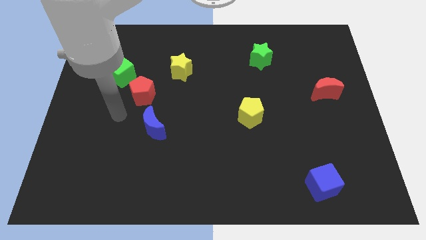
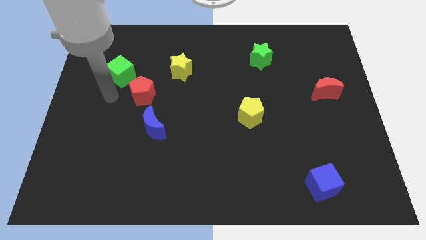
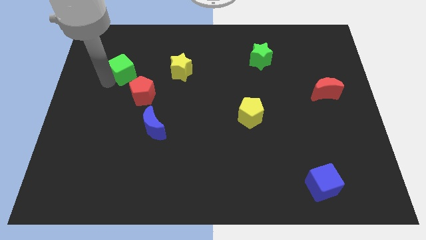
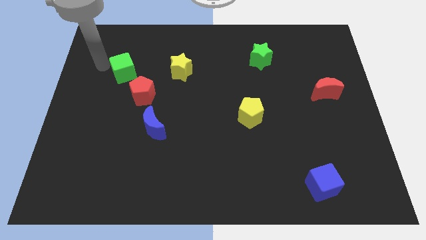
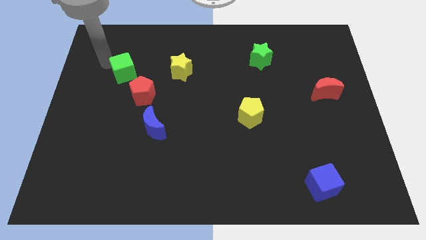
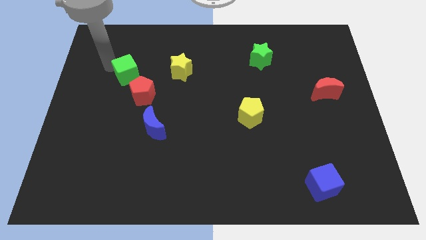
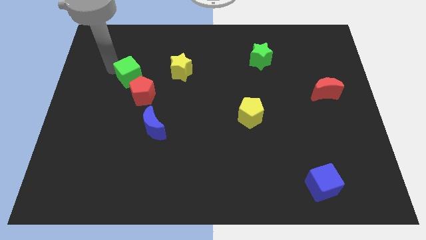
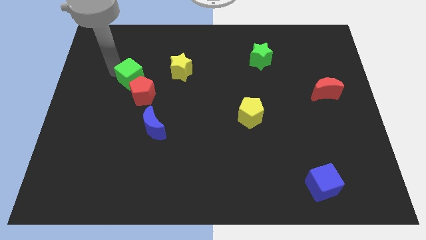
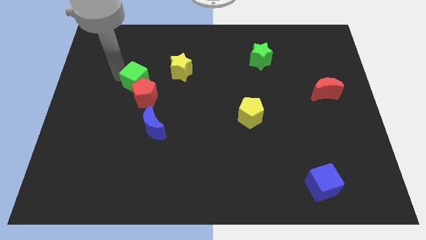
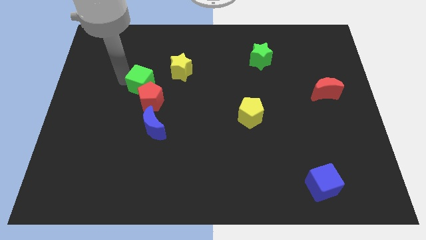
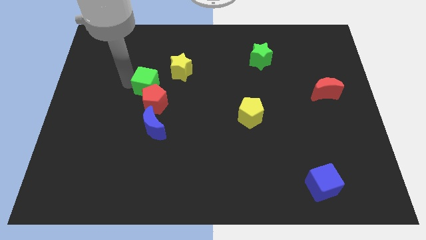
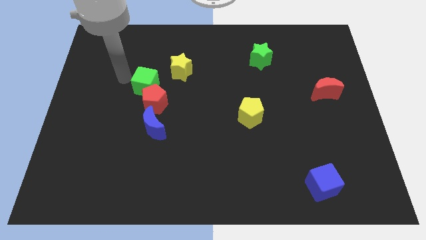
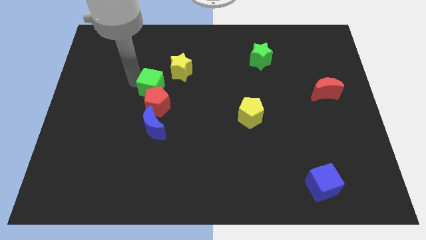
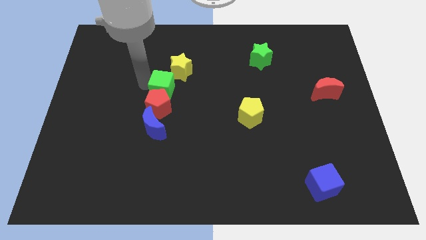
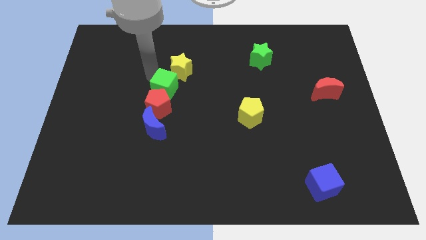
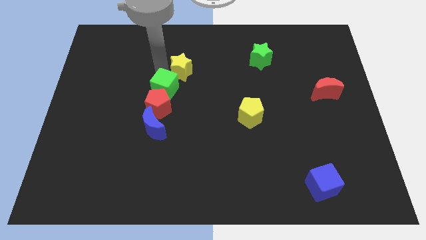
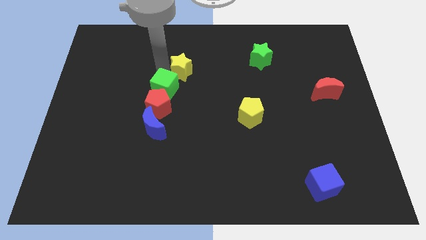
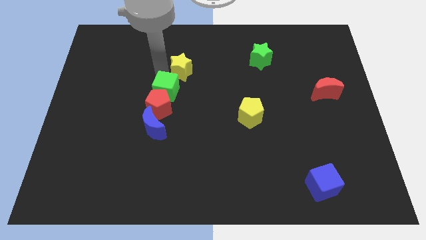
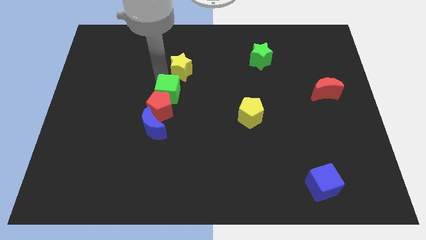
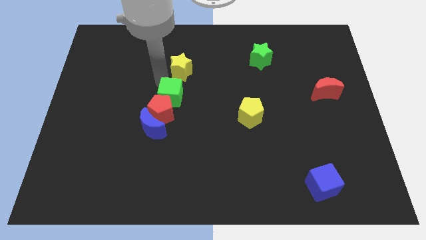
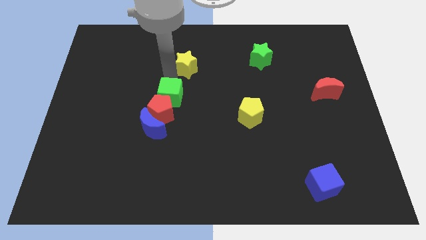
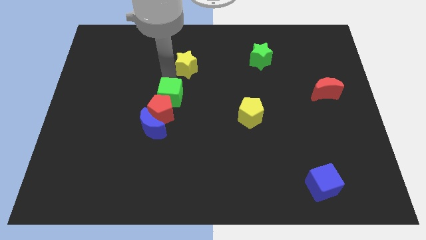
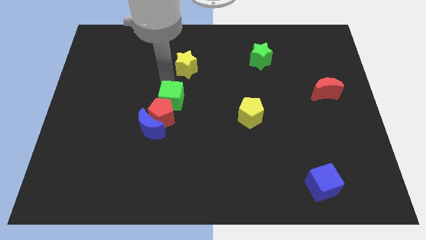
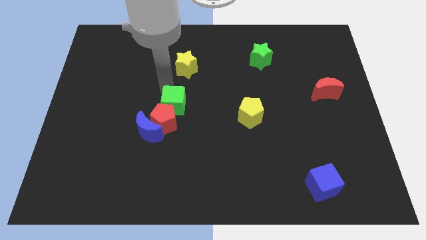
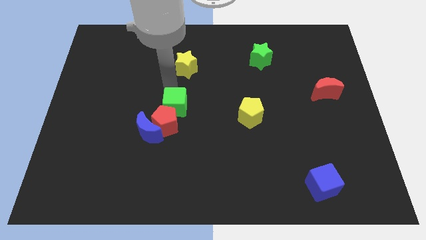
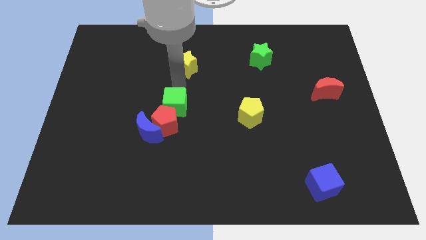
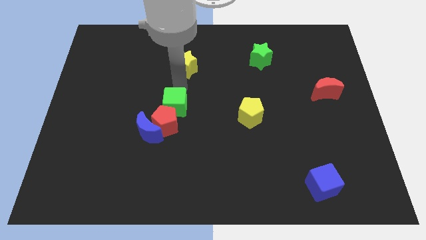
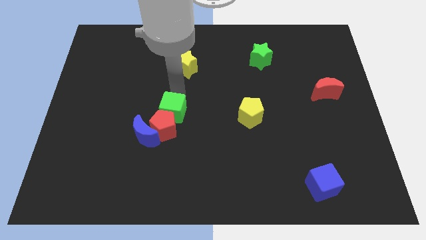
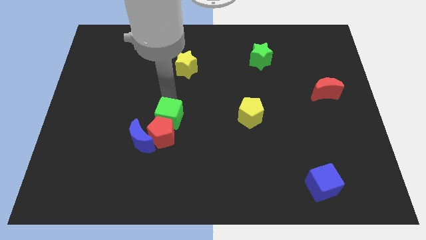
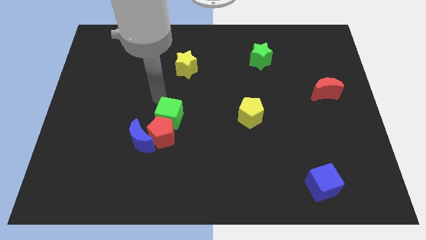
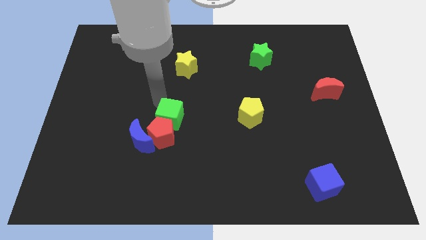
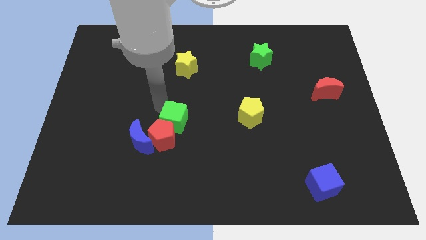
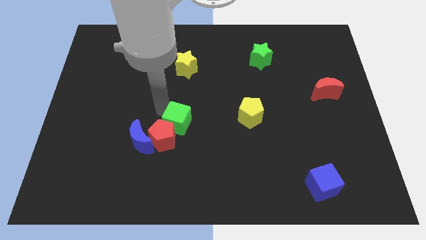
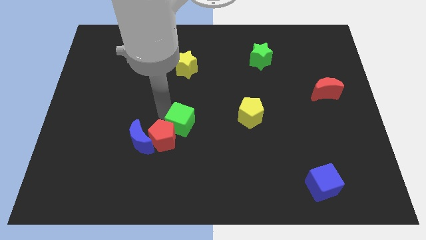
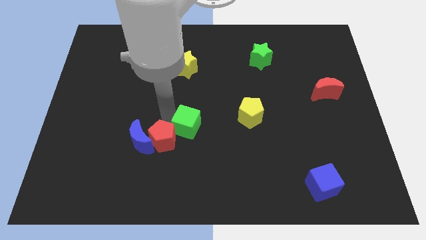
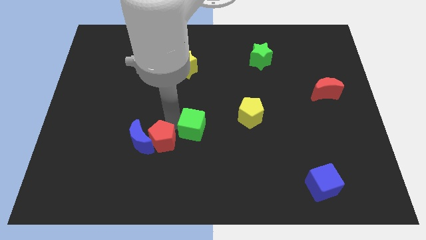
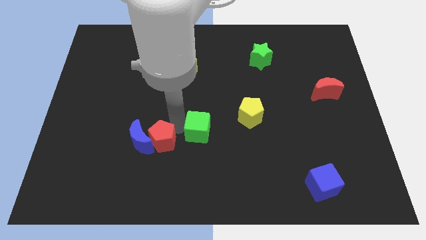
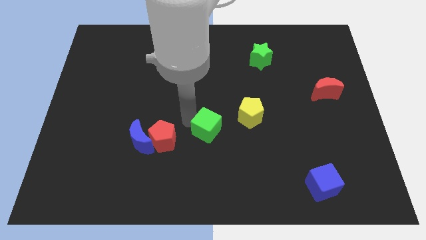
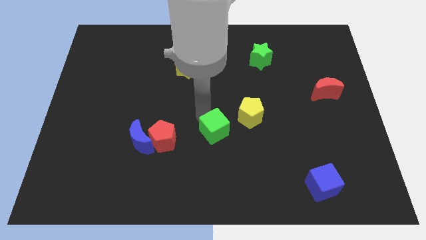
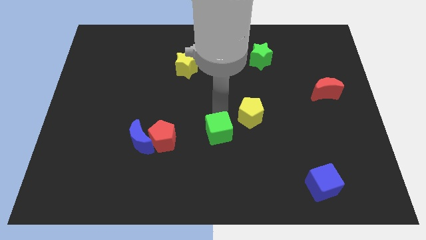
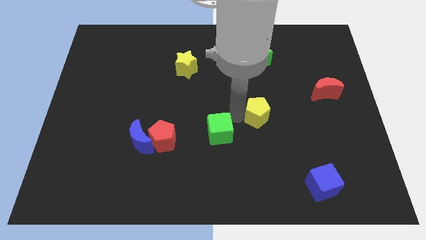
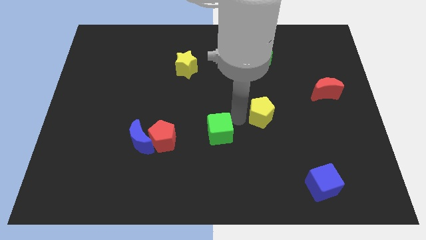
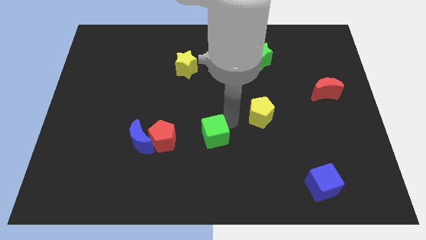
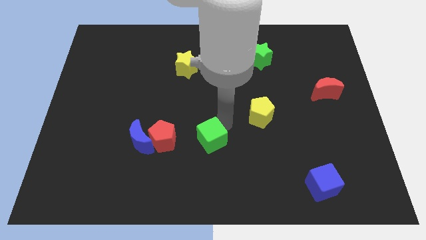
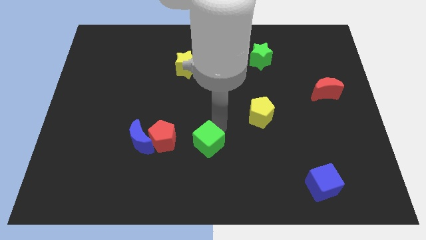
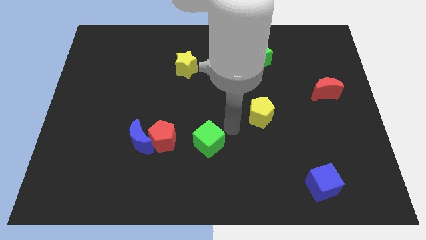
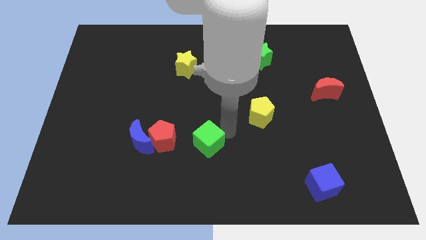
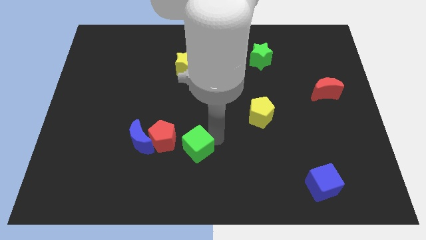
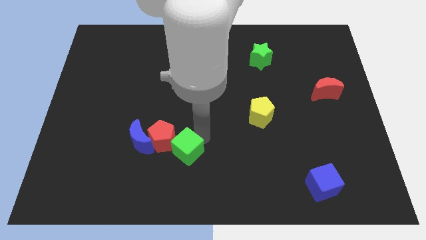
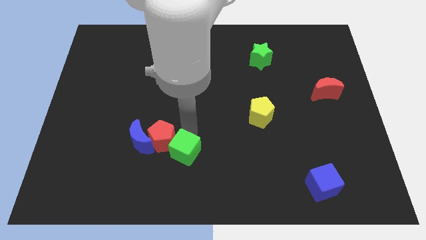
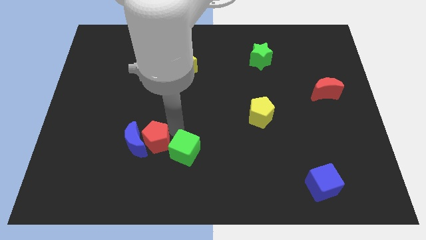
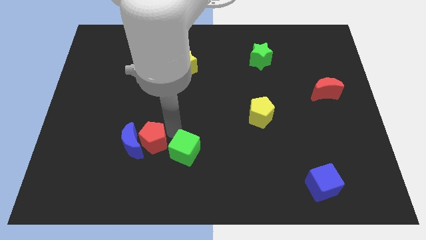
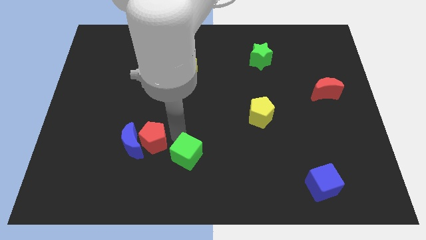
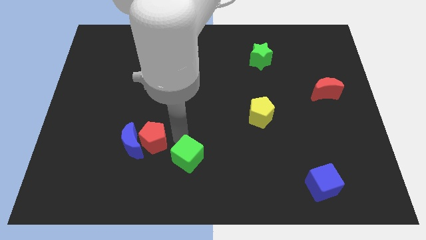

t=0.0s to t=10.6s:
slide the green cube to the bottom

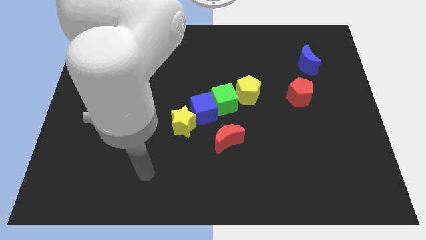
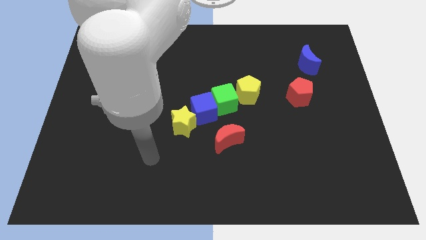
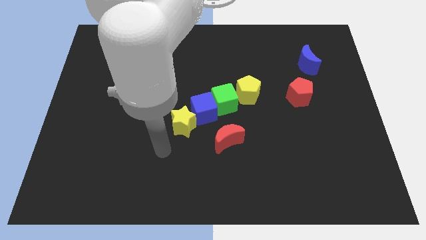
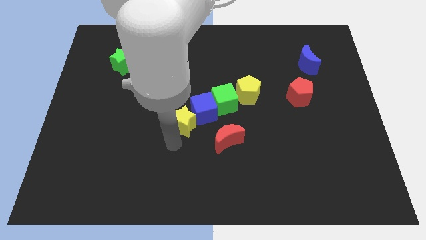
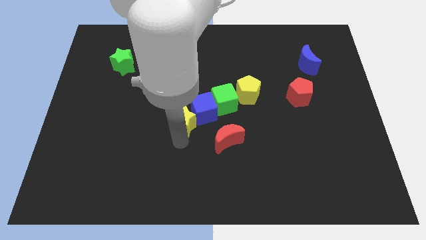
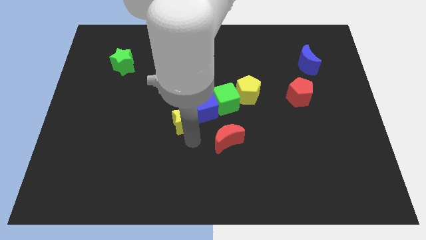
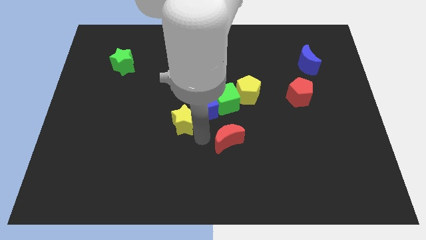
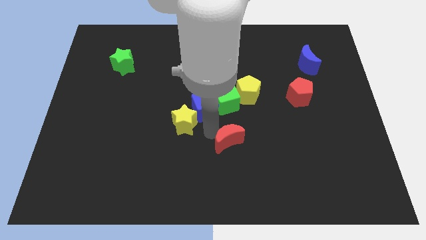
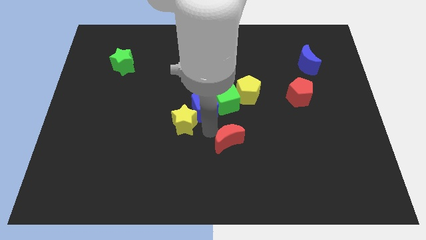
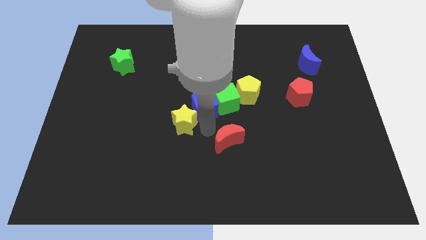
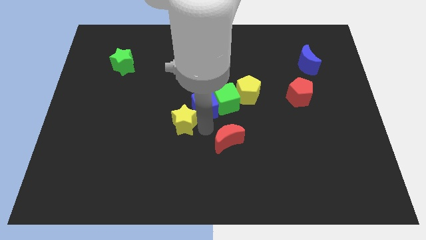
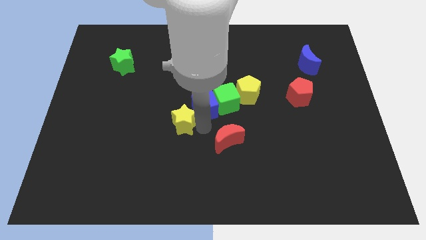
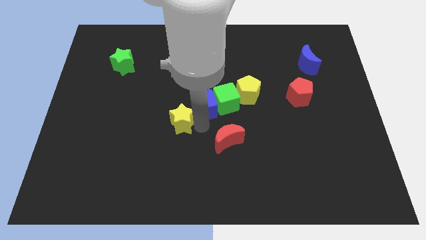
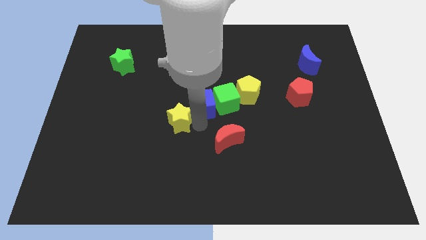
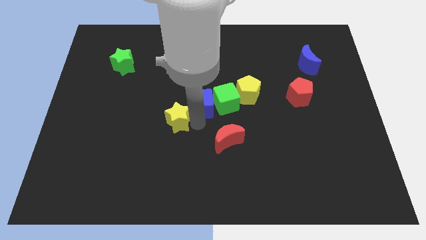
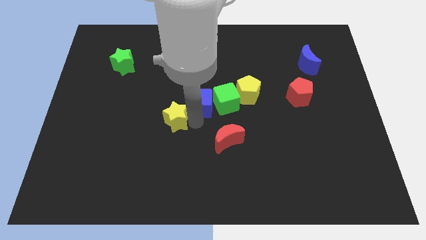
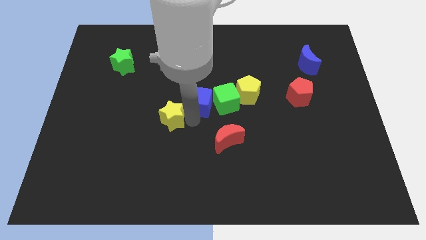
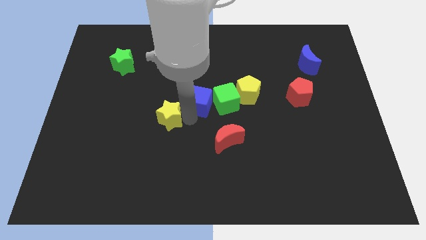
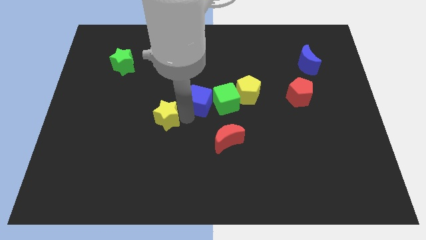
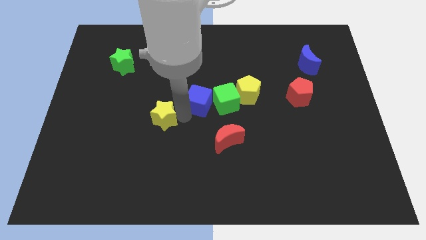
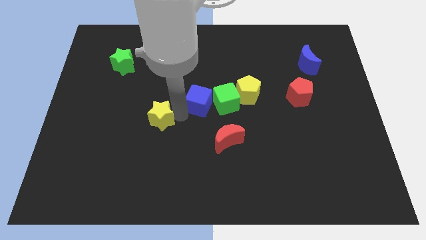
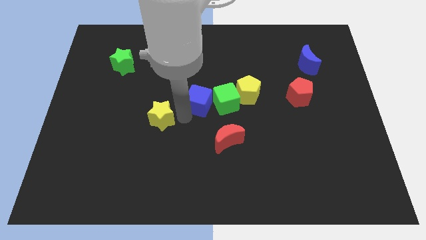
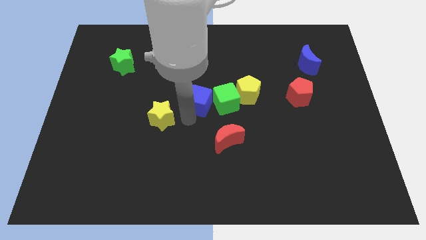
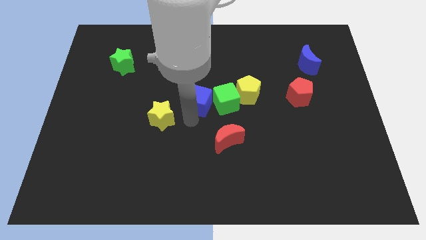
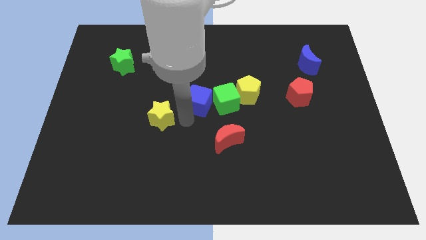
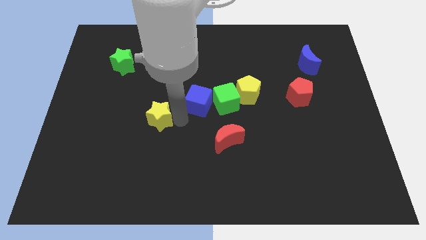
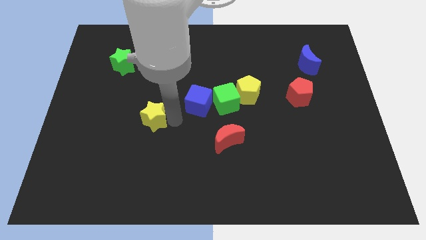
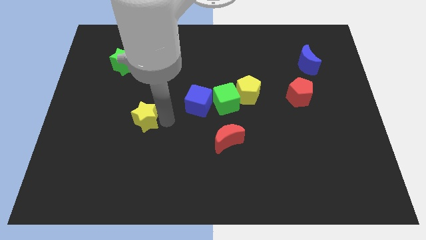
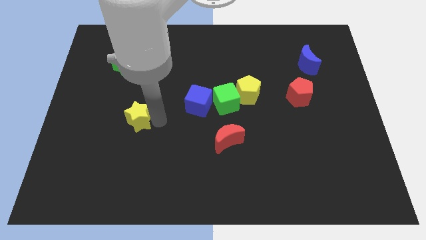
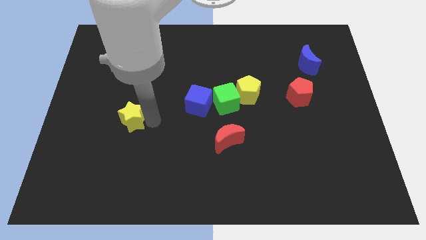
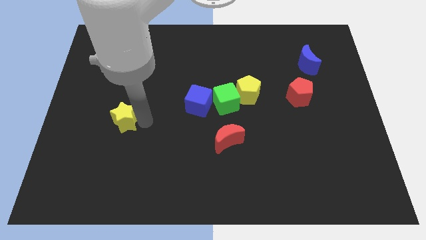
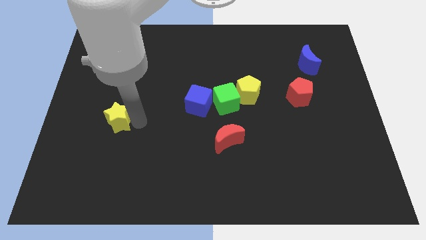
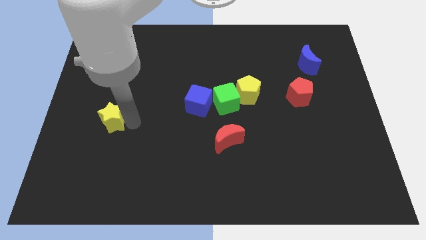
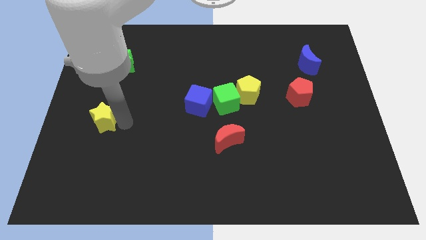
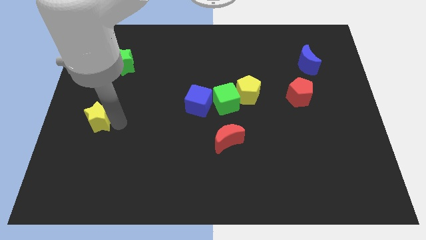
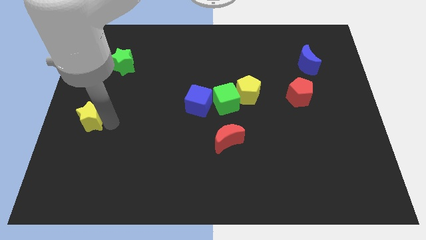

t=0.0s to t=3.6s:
move the yellow star to the center left
